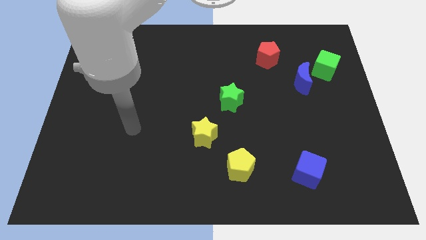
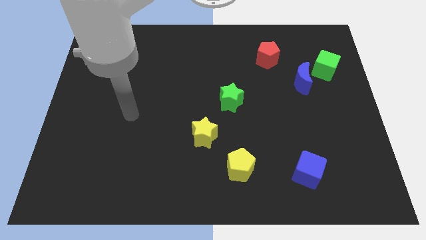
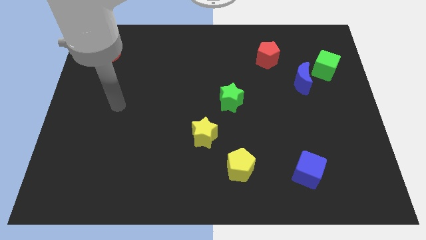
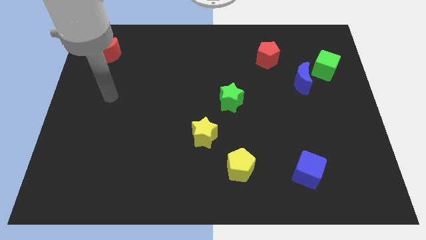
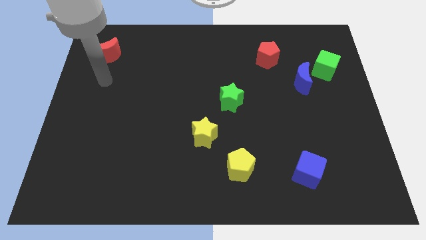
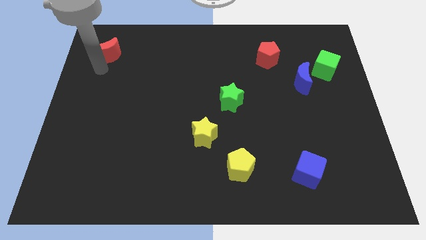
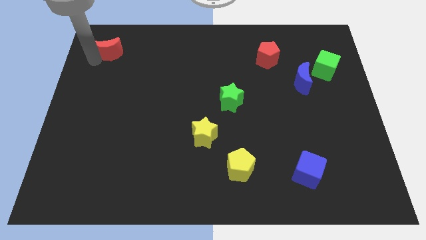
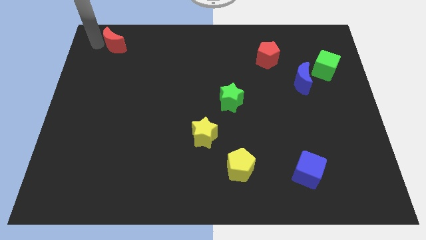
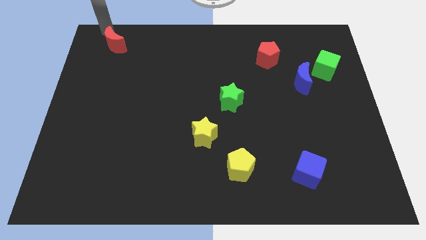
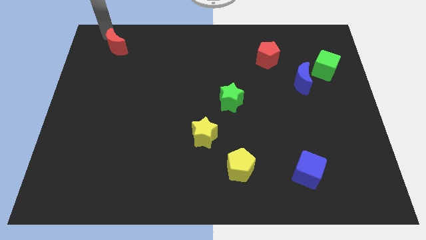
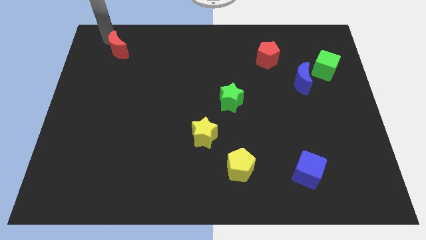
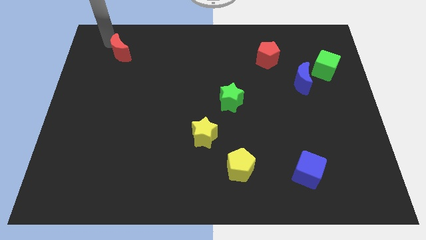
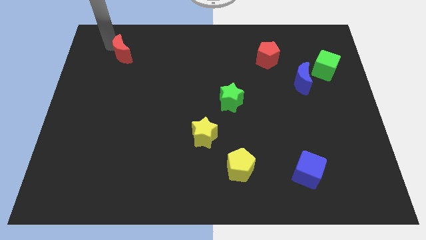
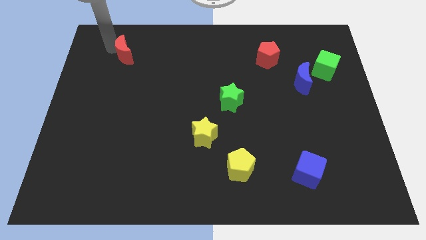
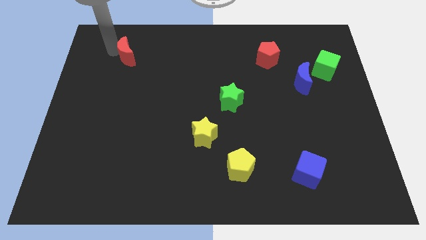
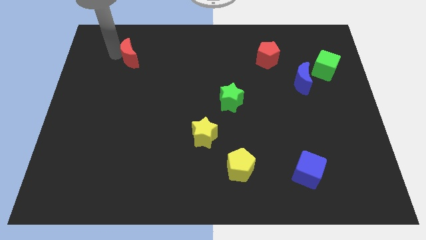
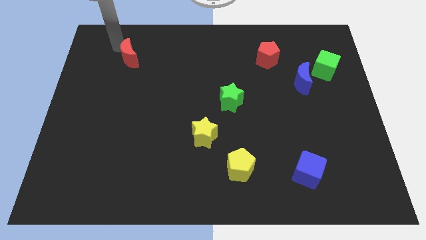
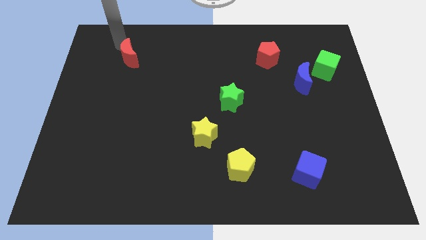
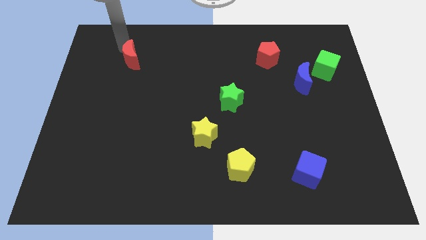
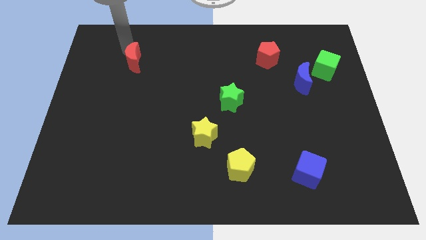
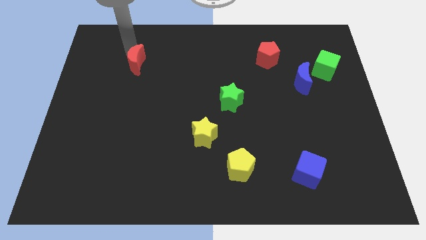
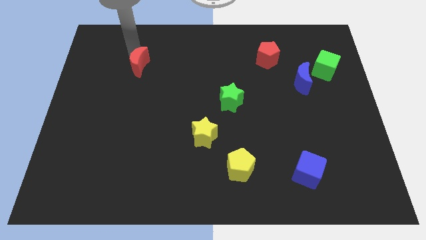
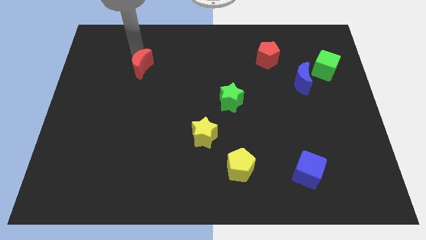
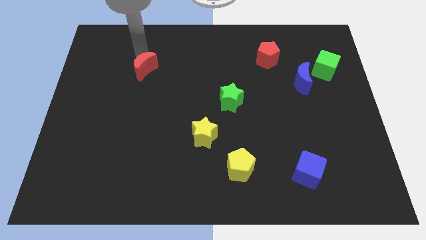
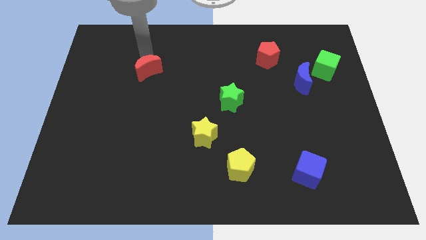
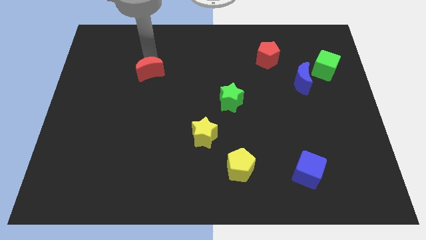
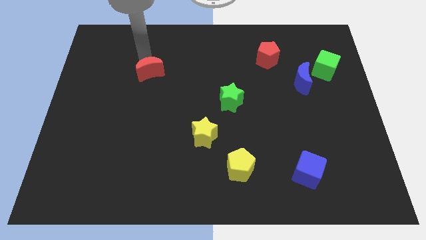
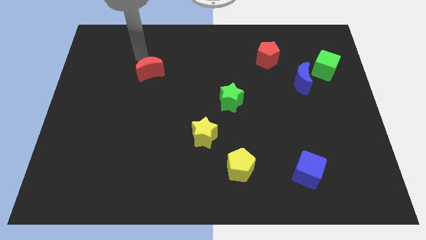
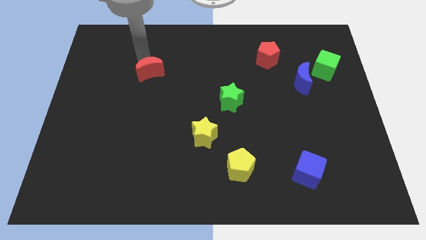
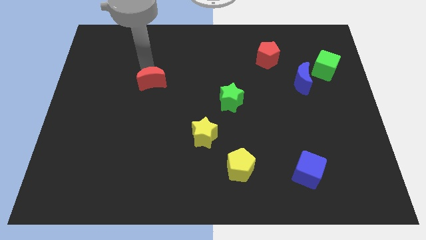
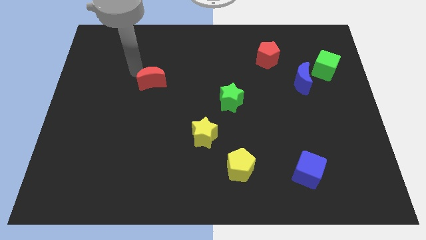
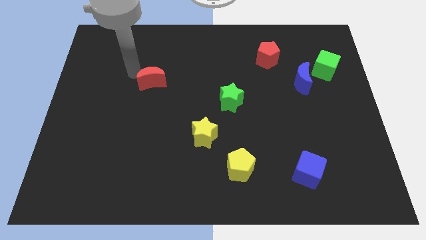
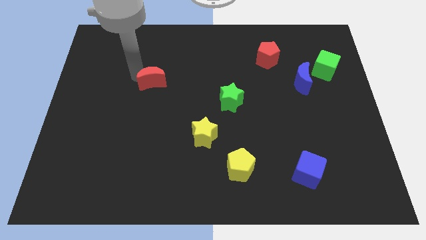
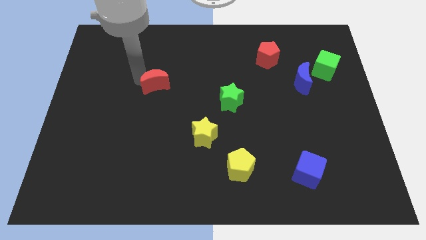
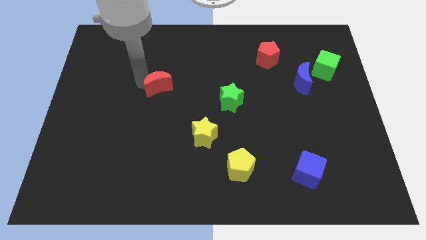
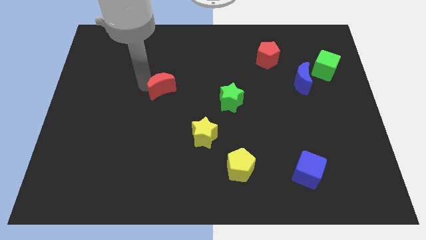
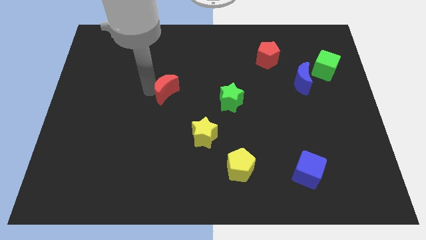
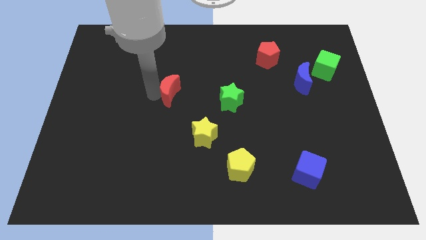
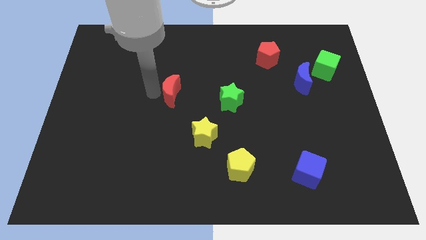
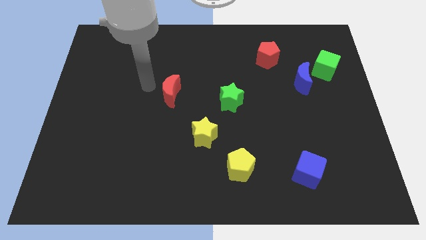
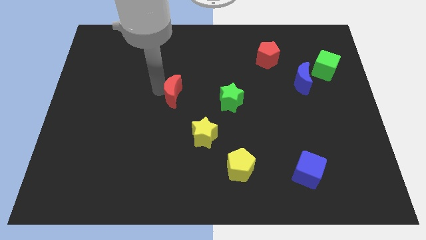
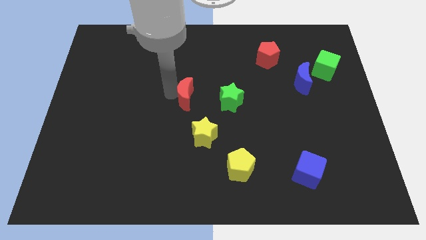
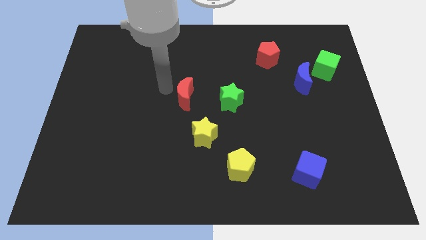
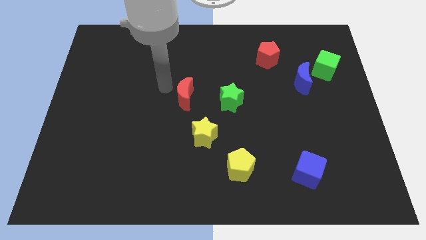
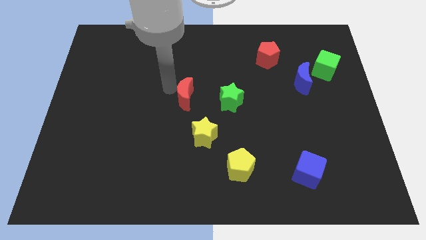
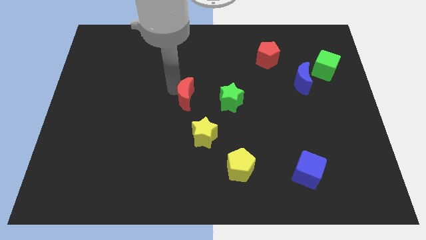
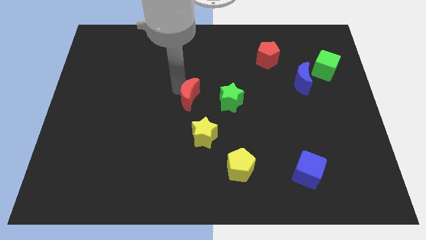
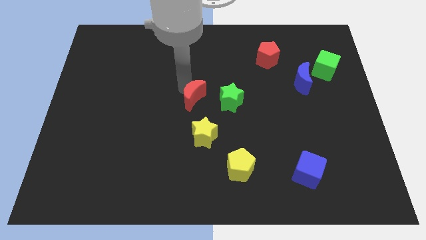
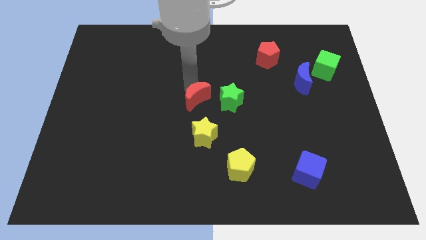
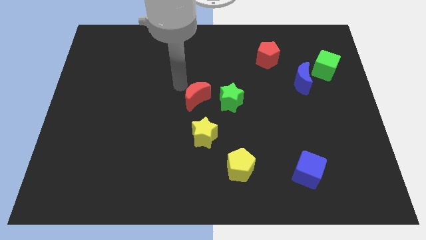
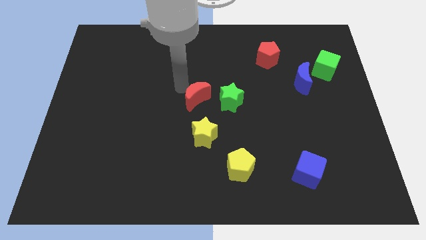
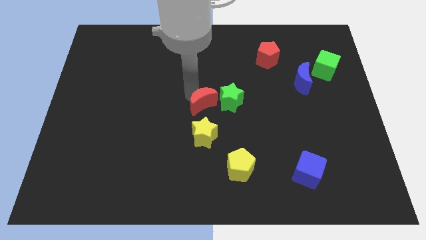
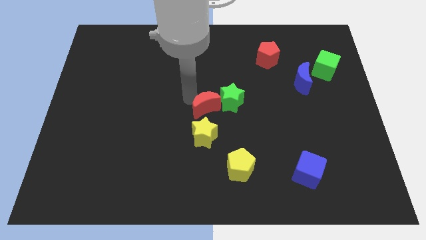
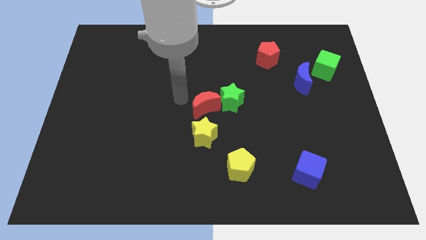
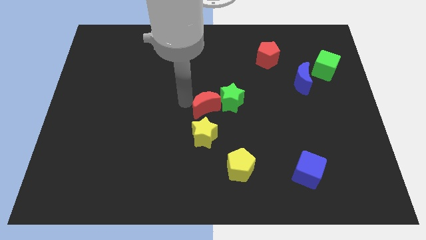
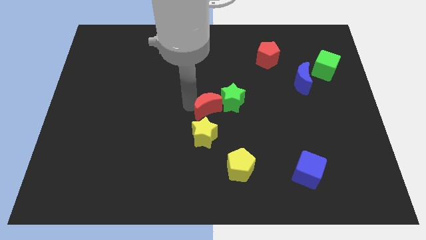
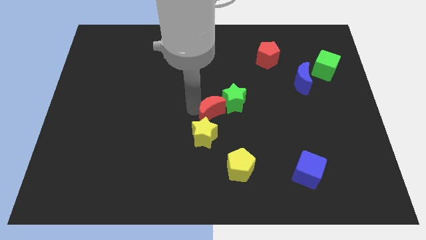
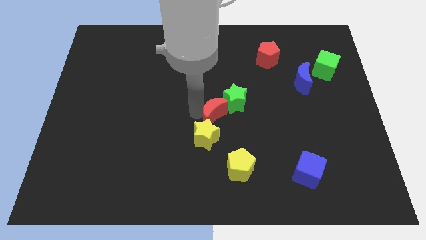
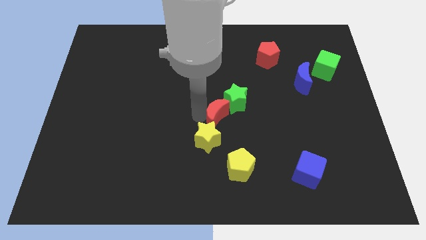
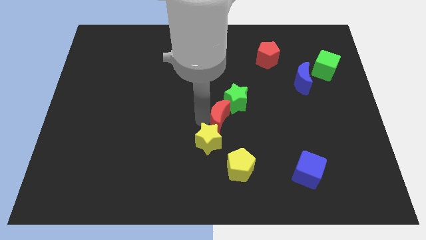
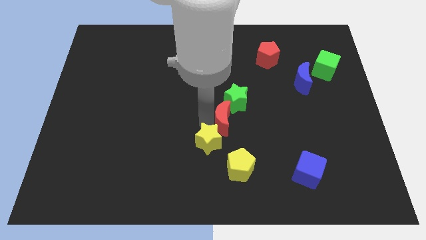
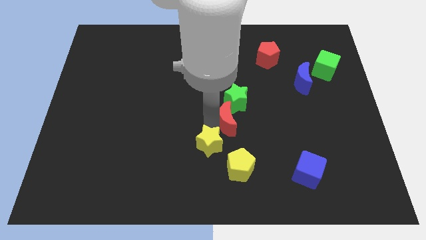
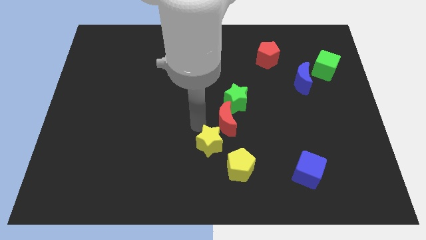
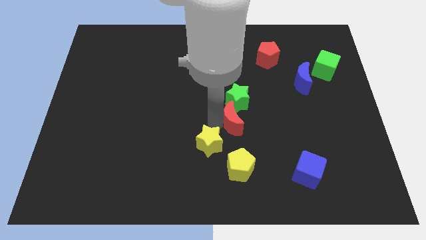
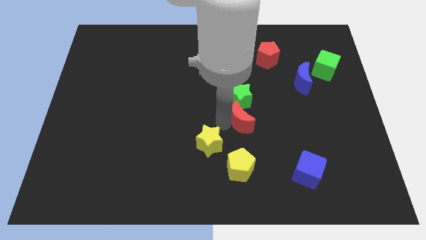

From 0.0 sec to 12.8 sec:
move the red moon to the bottom right of the green star
